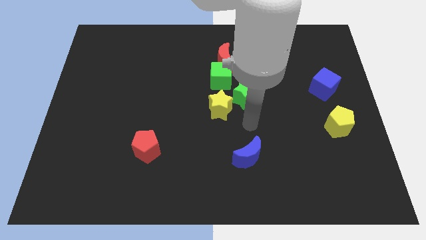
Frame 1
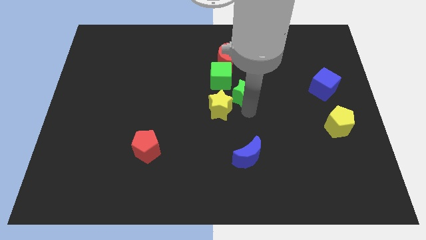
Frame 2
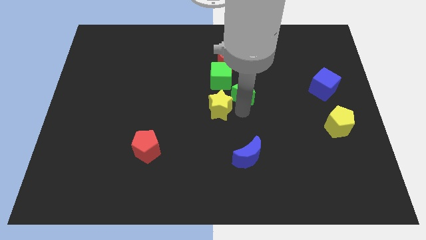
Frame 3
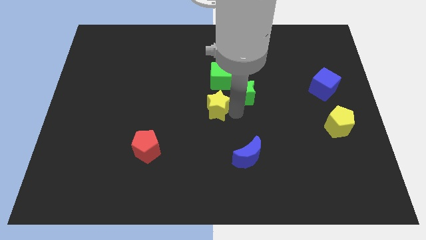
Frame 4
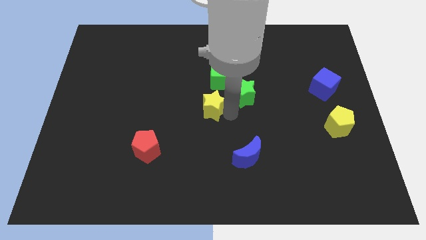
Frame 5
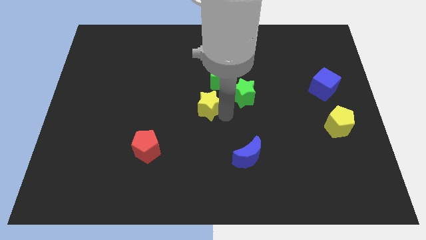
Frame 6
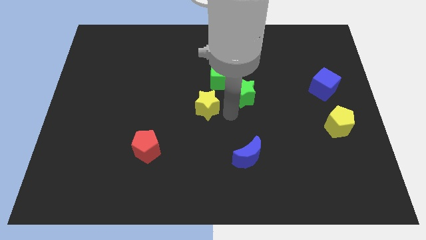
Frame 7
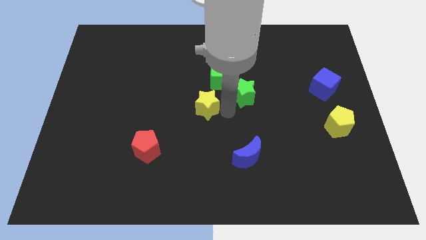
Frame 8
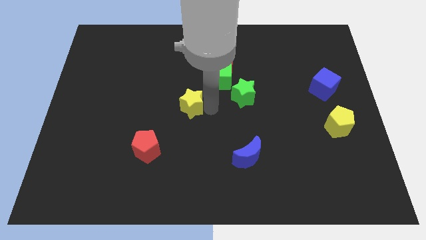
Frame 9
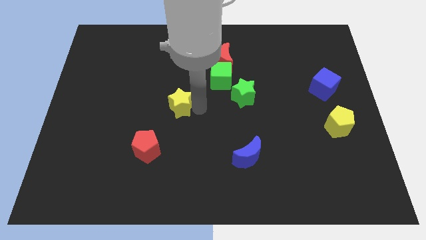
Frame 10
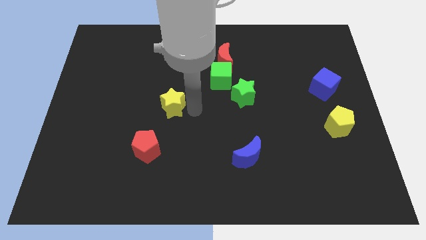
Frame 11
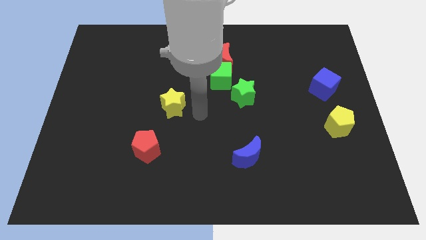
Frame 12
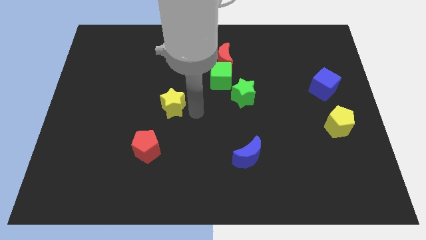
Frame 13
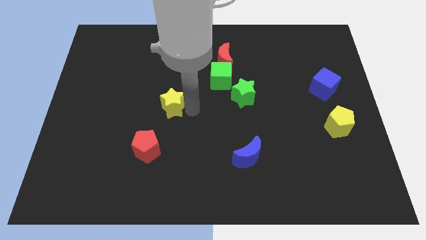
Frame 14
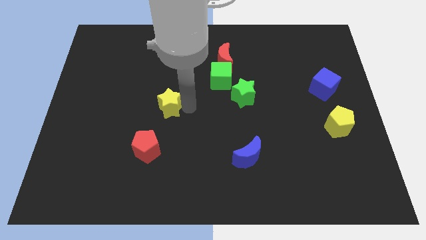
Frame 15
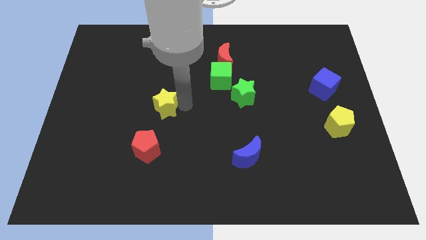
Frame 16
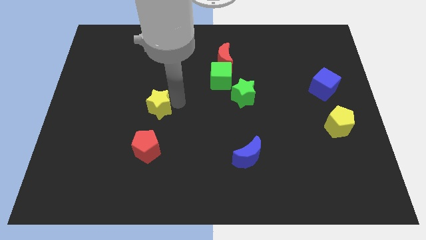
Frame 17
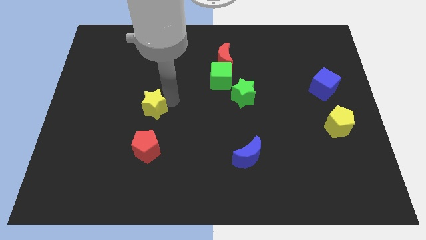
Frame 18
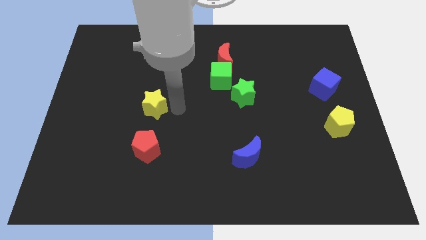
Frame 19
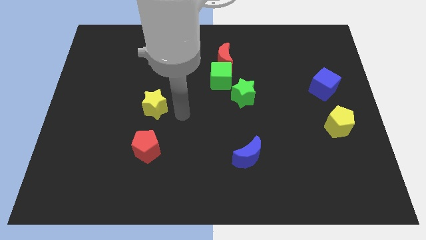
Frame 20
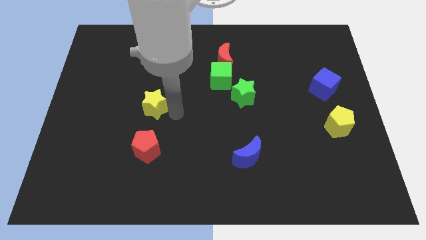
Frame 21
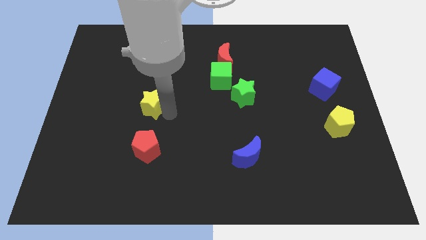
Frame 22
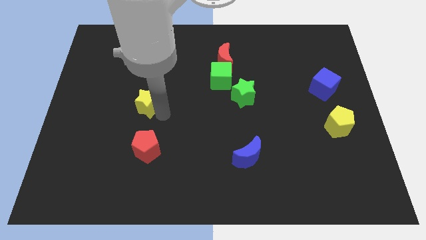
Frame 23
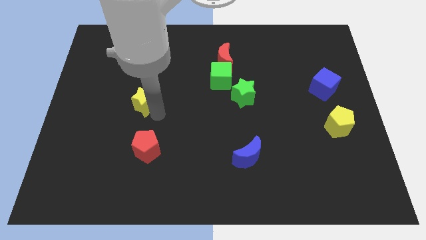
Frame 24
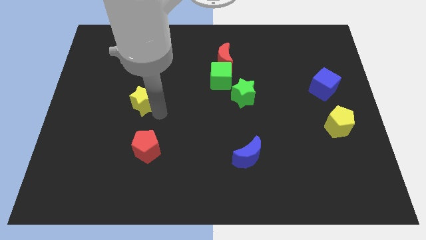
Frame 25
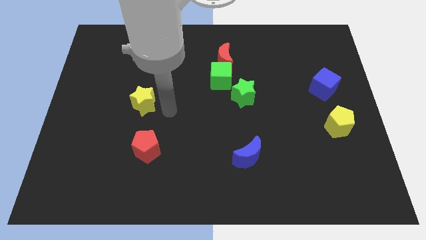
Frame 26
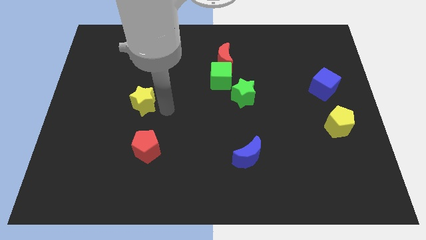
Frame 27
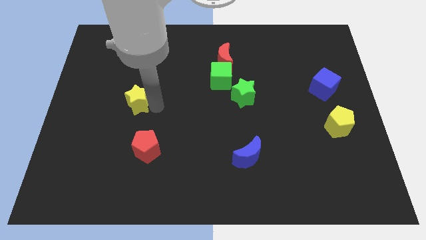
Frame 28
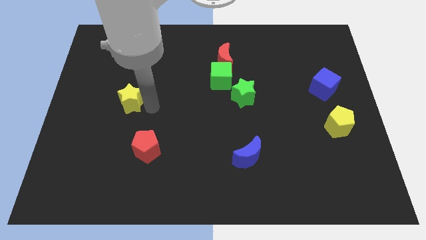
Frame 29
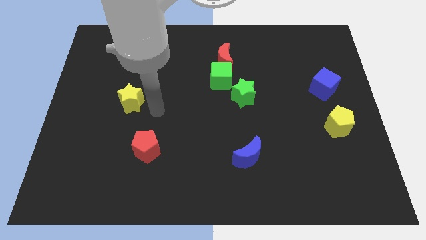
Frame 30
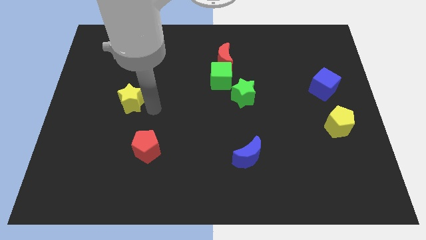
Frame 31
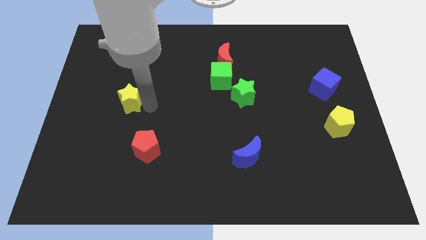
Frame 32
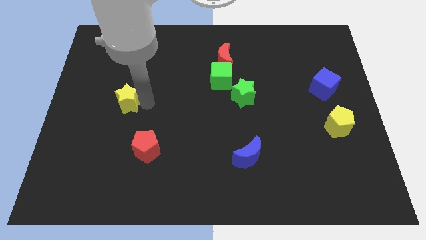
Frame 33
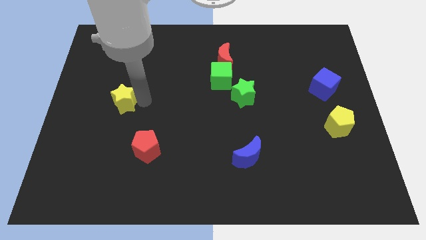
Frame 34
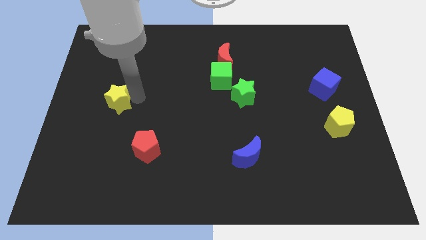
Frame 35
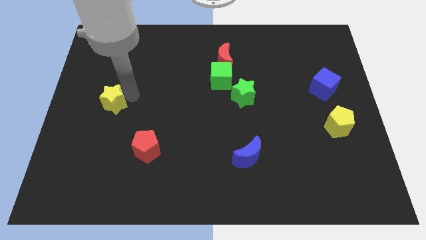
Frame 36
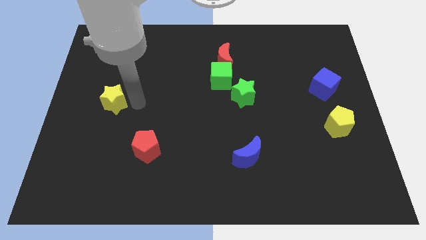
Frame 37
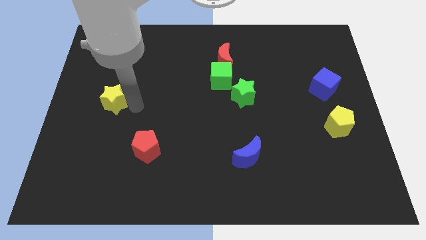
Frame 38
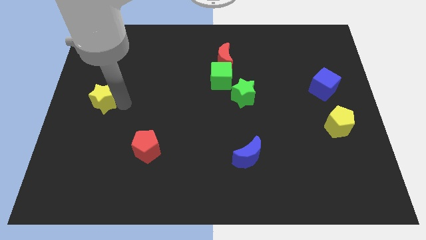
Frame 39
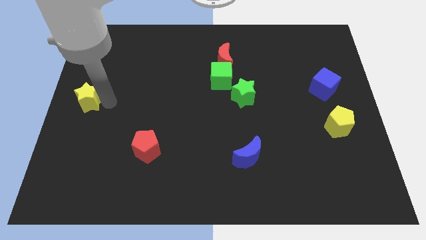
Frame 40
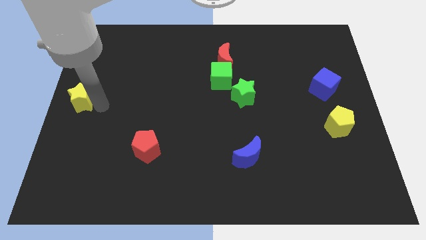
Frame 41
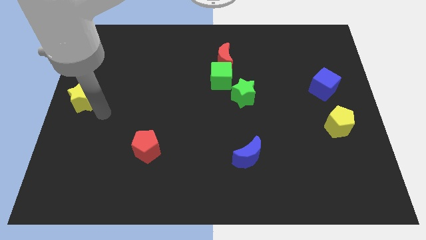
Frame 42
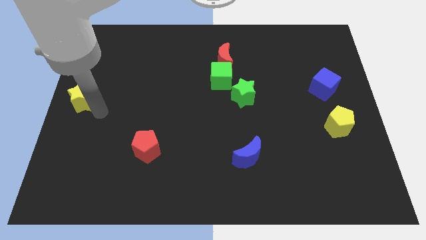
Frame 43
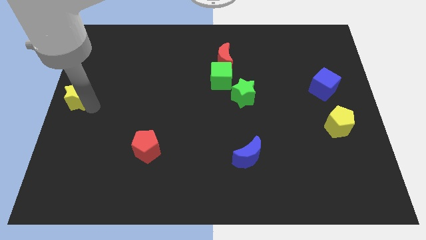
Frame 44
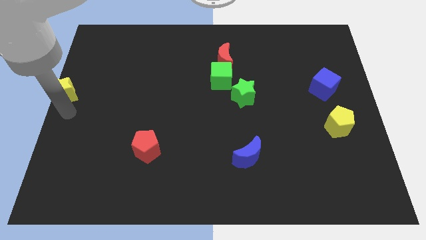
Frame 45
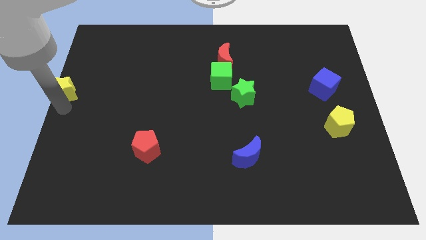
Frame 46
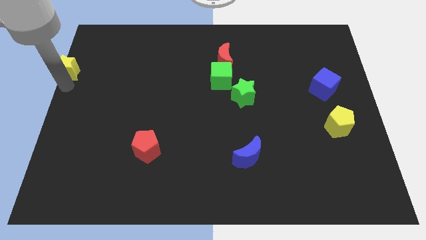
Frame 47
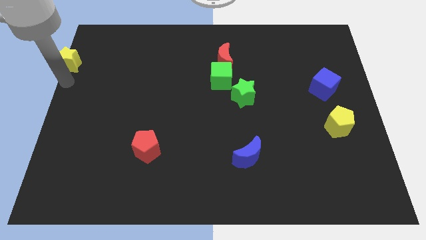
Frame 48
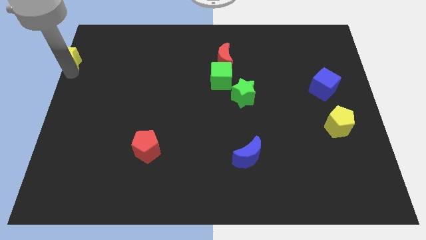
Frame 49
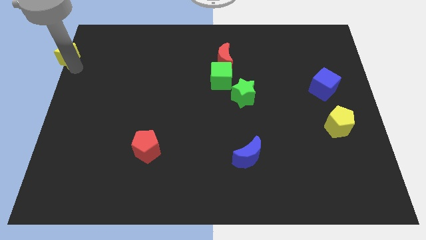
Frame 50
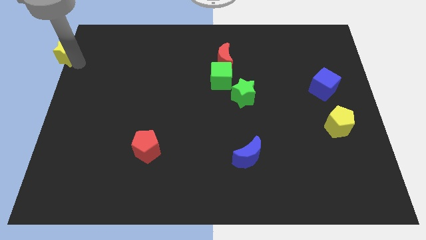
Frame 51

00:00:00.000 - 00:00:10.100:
put the yellow star to the top left

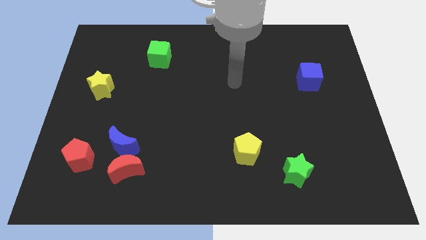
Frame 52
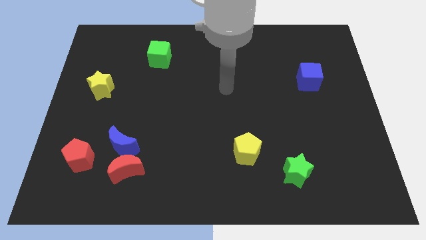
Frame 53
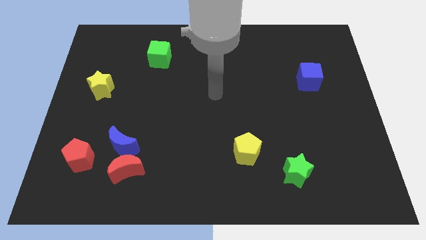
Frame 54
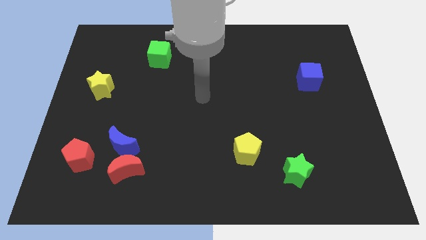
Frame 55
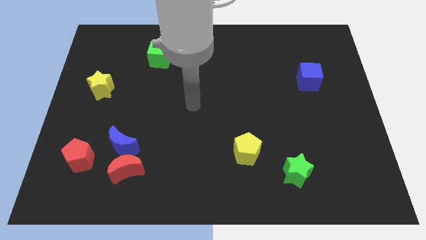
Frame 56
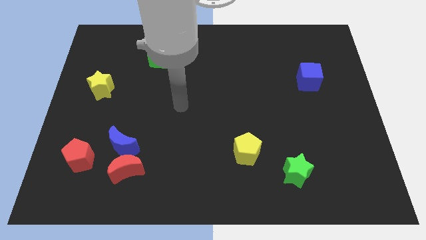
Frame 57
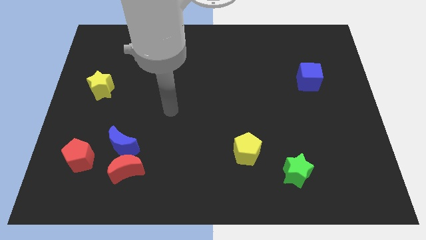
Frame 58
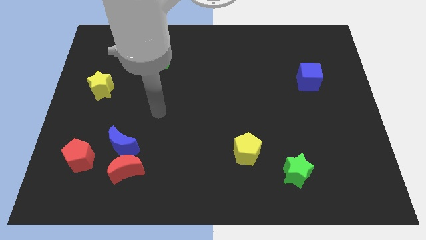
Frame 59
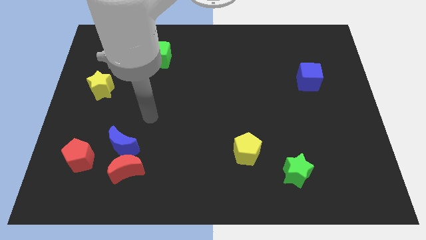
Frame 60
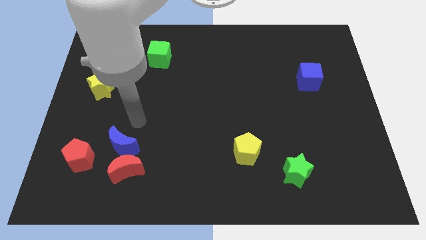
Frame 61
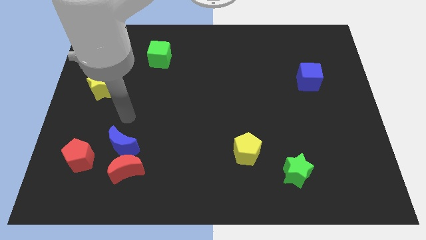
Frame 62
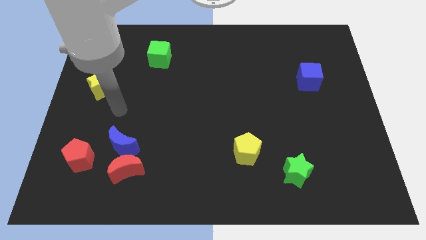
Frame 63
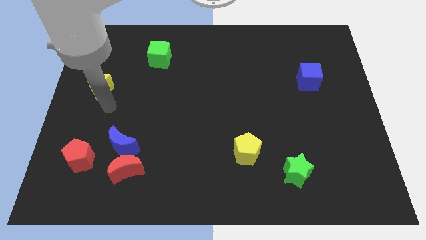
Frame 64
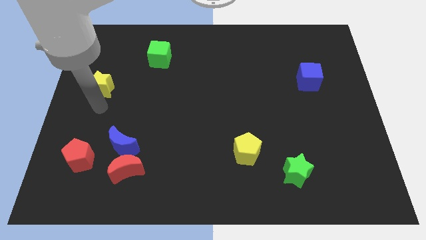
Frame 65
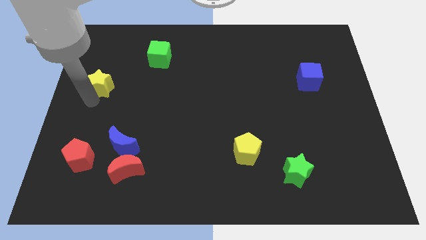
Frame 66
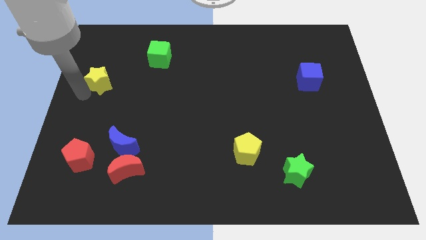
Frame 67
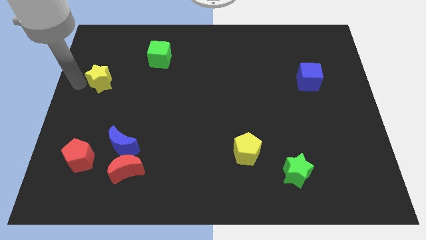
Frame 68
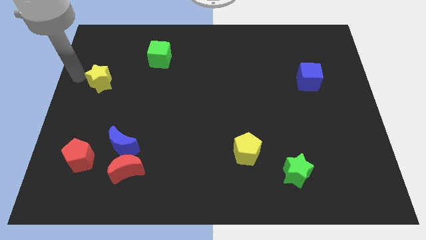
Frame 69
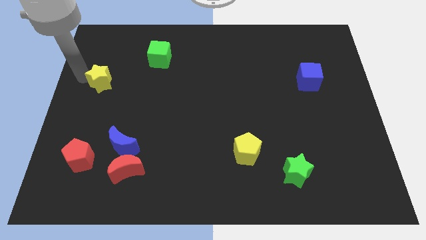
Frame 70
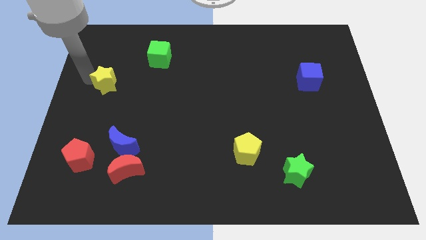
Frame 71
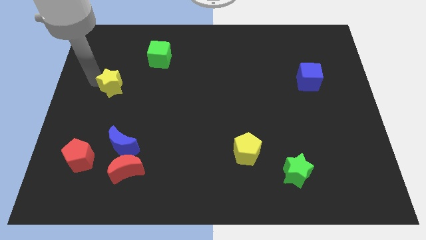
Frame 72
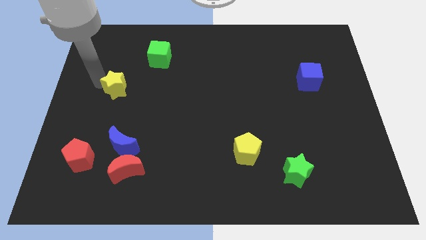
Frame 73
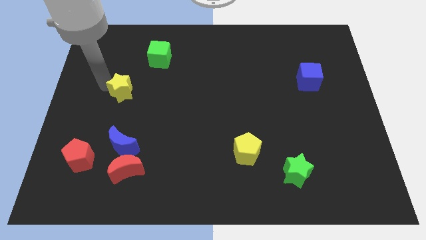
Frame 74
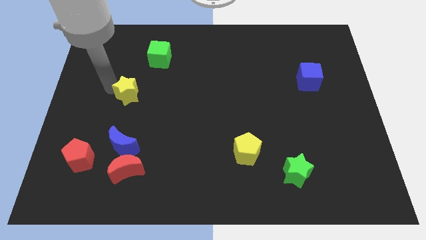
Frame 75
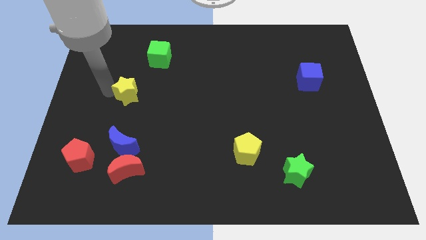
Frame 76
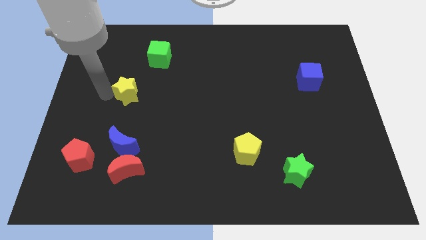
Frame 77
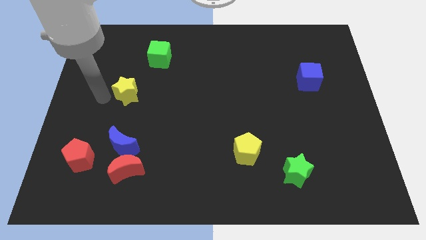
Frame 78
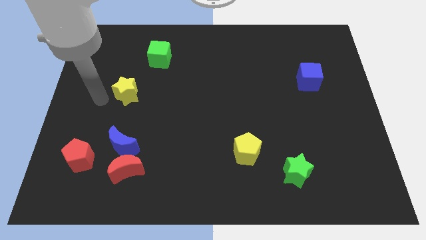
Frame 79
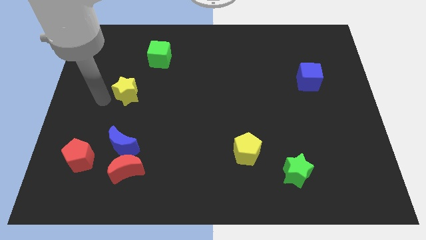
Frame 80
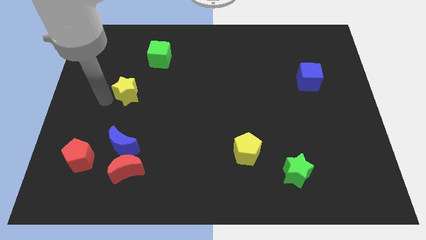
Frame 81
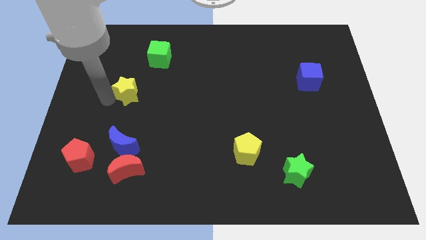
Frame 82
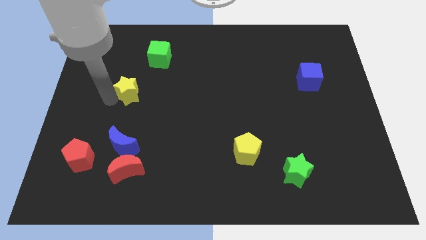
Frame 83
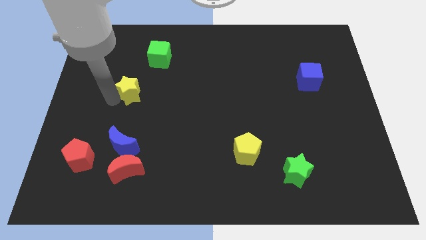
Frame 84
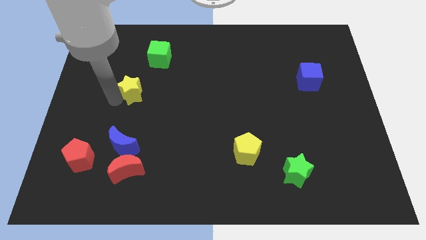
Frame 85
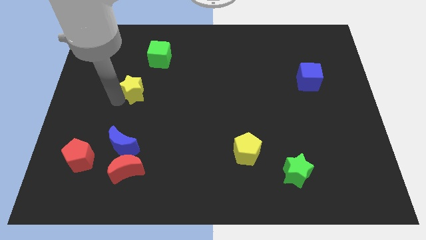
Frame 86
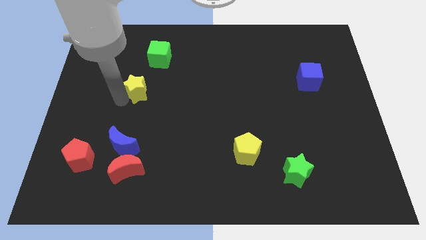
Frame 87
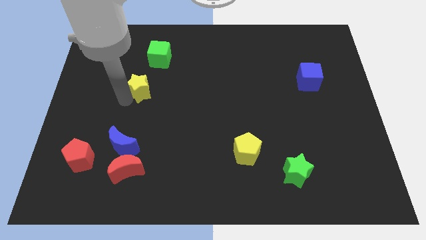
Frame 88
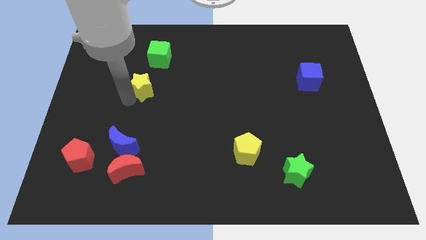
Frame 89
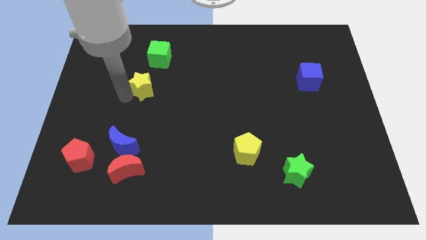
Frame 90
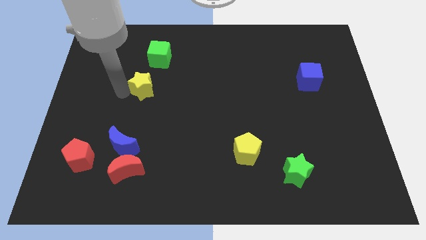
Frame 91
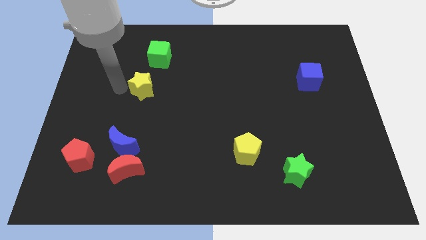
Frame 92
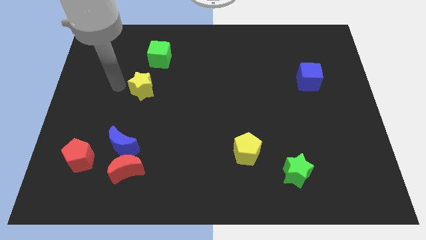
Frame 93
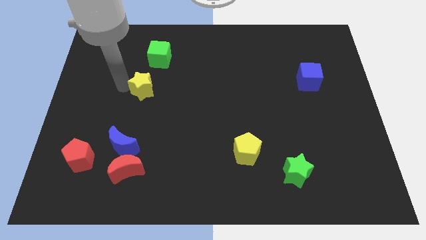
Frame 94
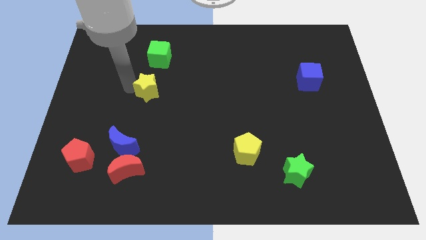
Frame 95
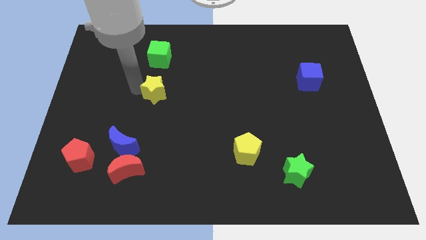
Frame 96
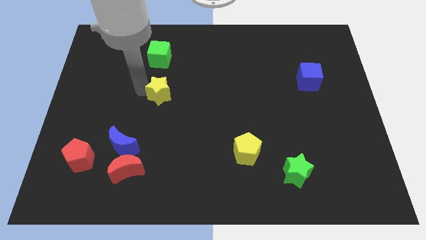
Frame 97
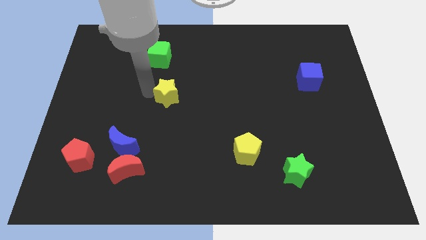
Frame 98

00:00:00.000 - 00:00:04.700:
slide the yellow star to the middle
